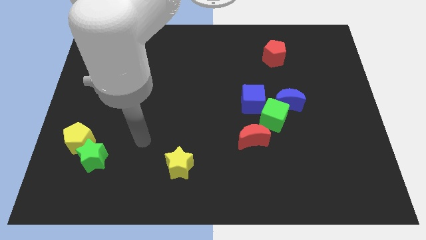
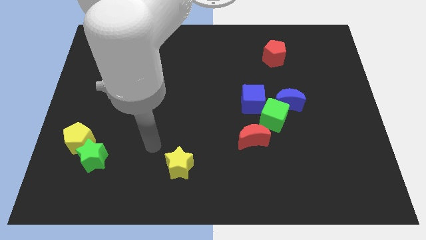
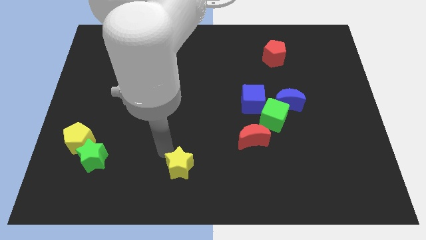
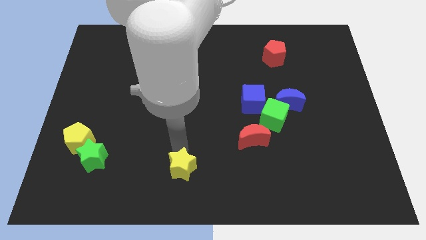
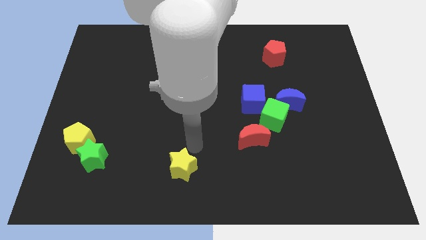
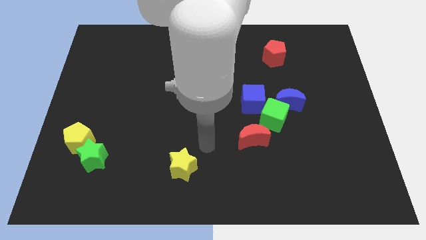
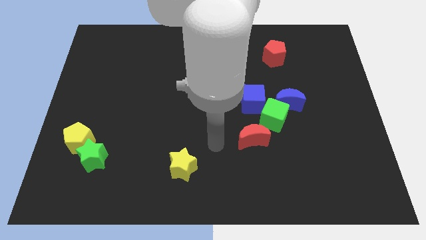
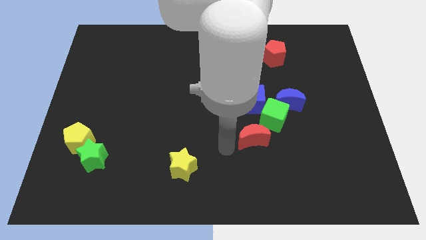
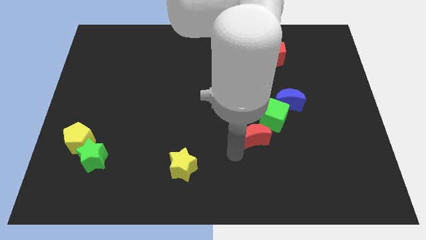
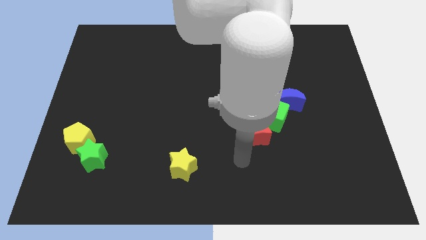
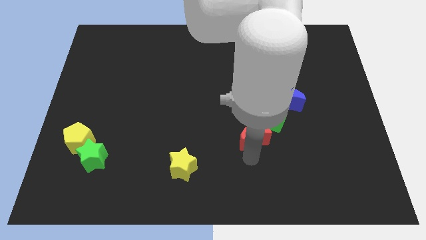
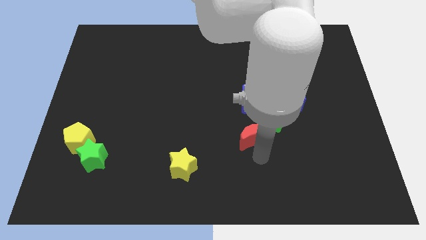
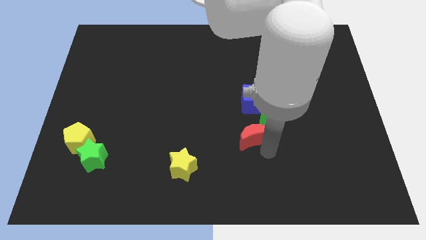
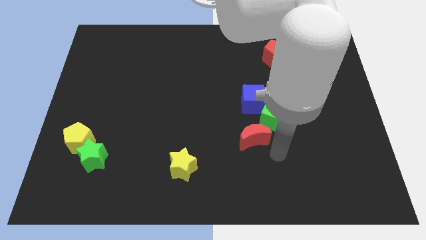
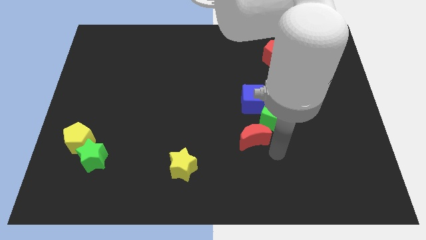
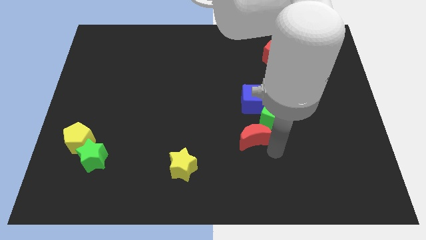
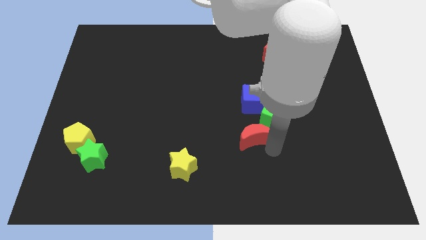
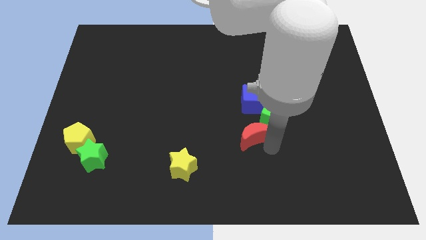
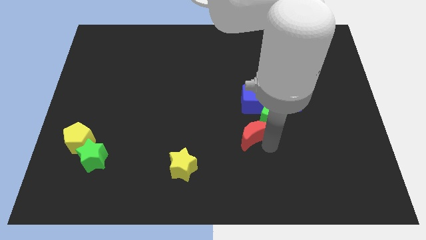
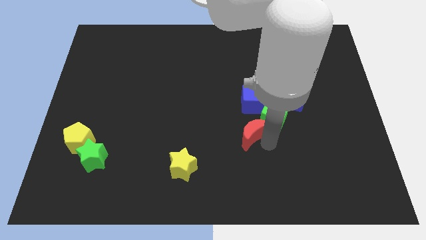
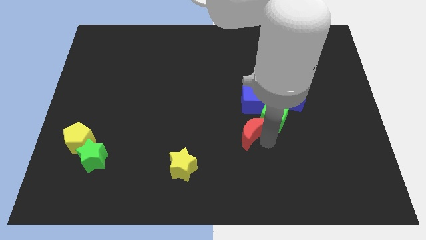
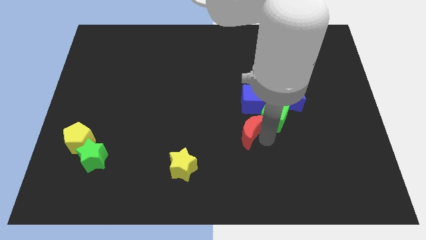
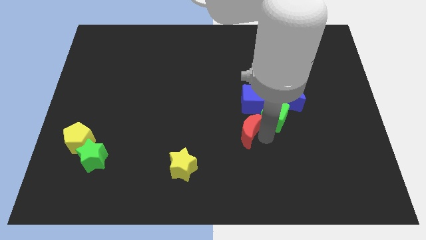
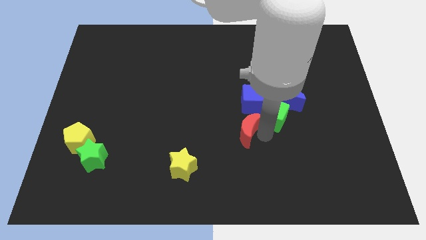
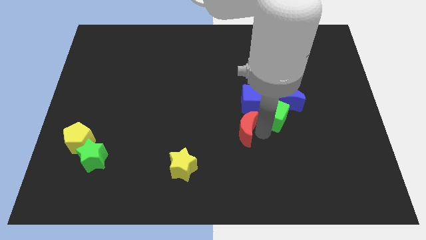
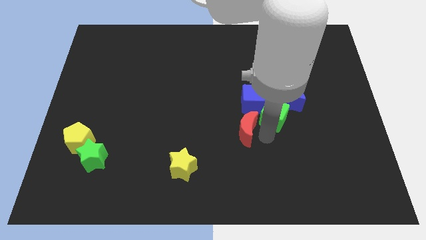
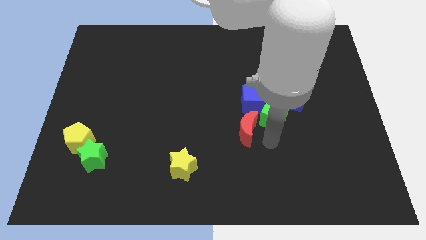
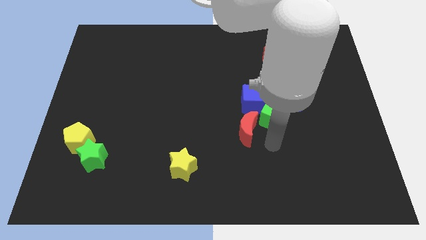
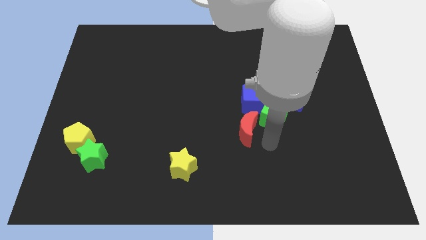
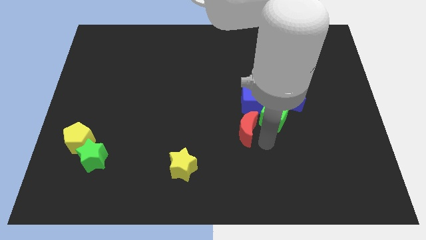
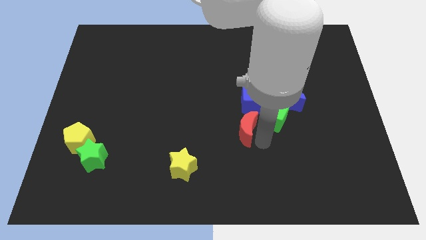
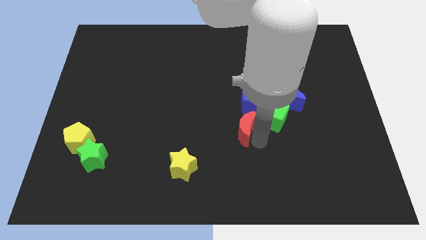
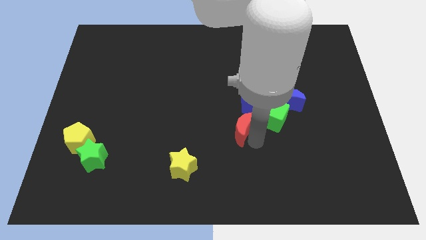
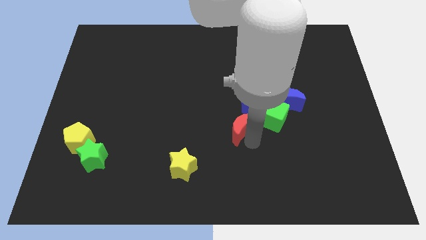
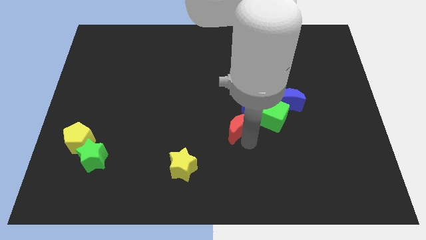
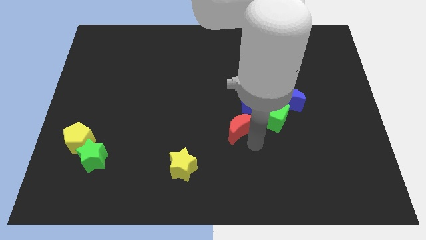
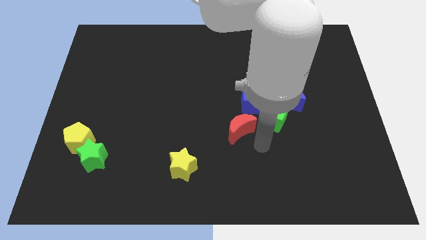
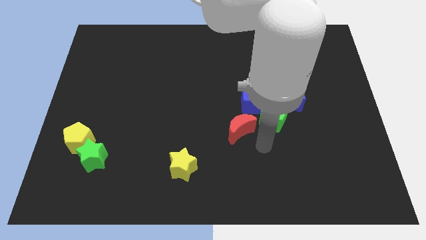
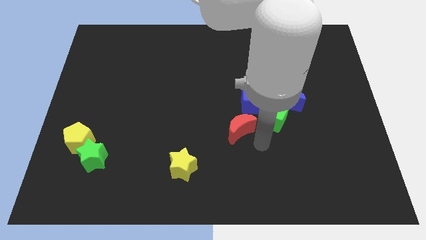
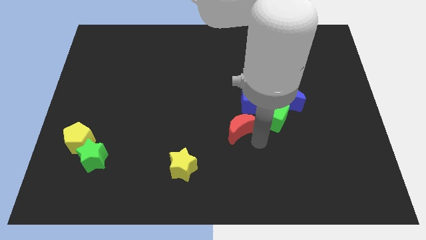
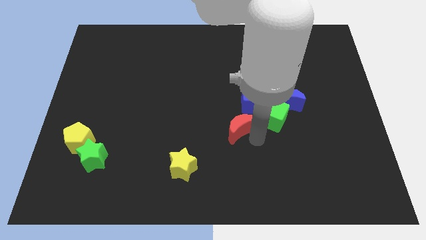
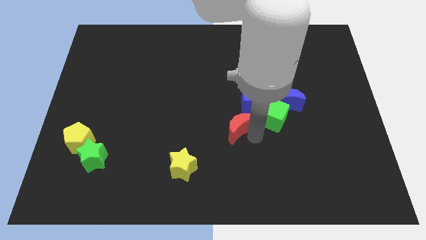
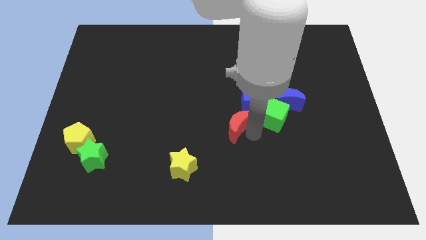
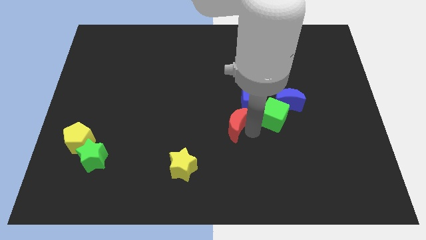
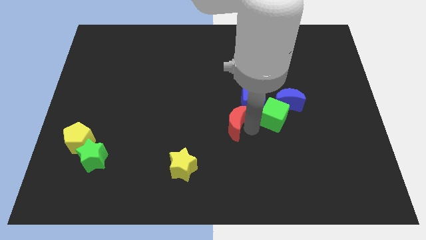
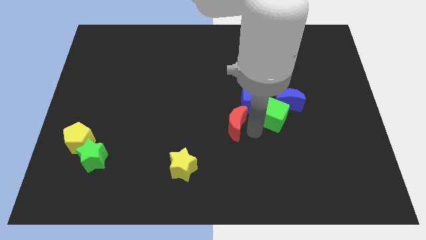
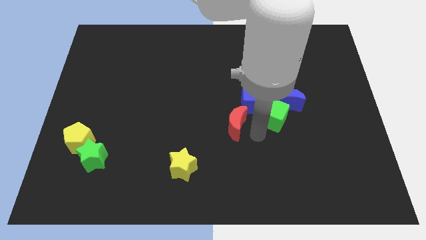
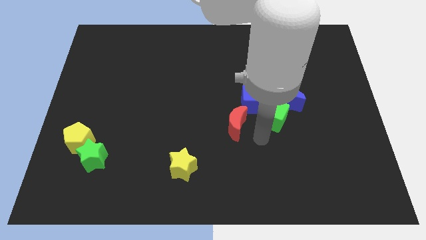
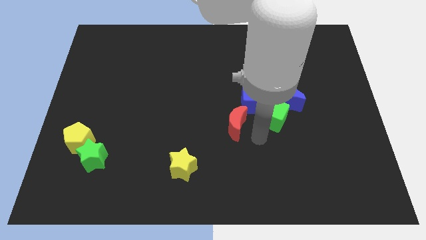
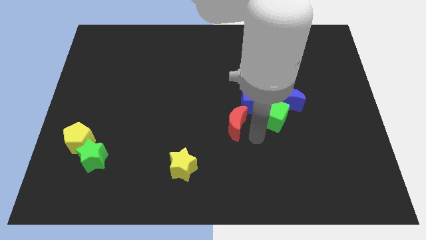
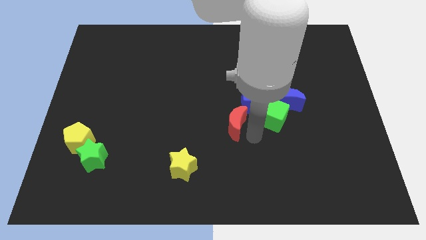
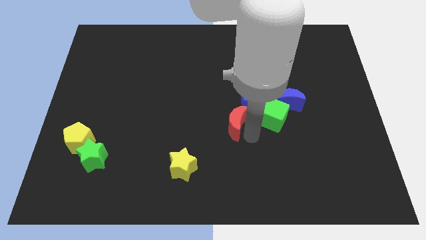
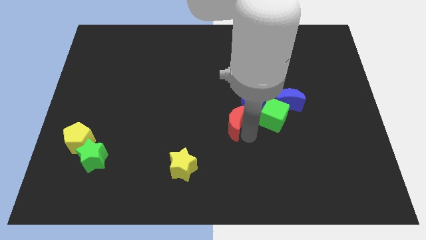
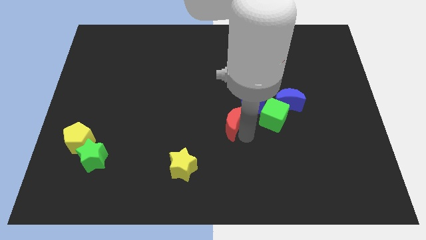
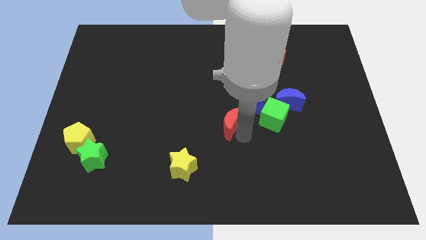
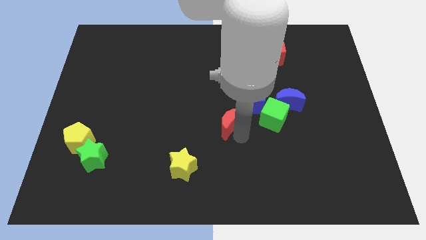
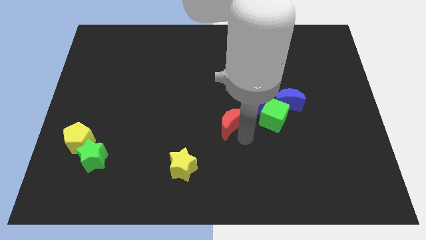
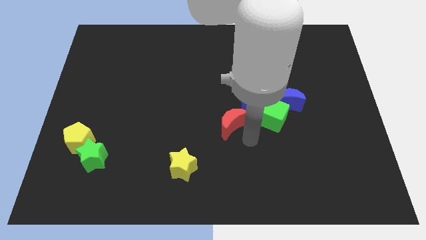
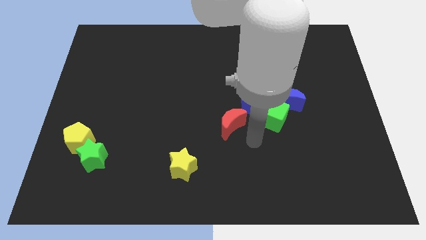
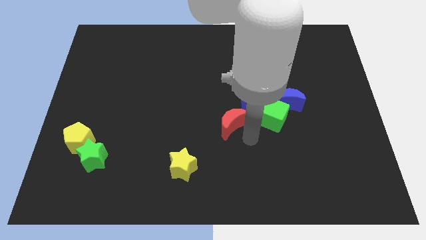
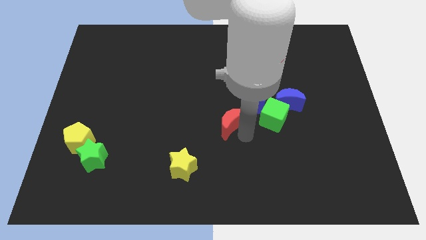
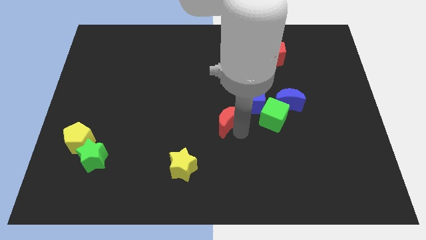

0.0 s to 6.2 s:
slide the red moon a little bit upwards and to the left diagonally

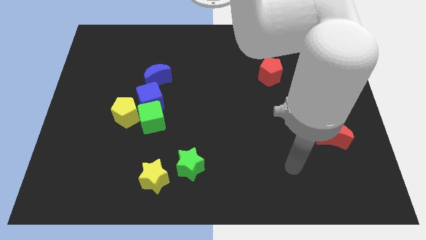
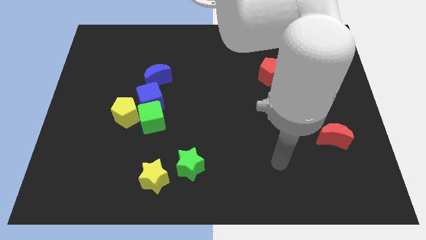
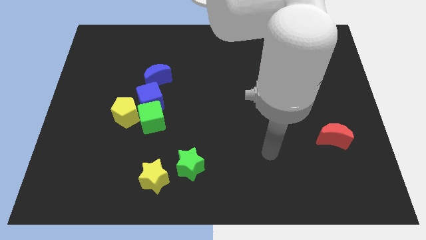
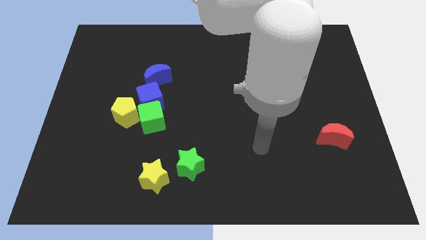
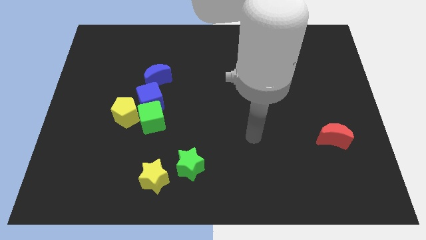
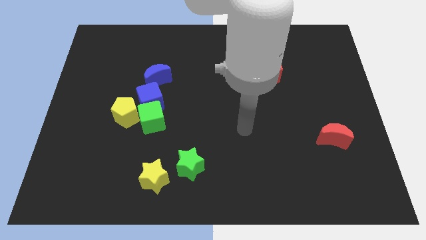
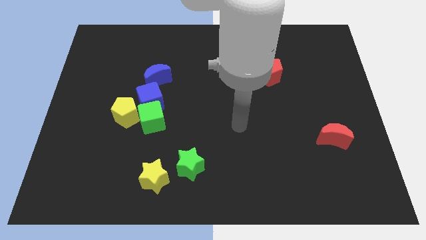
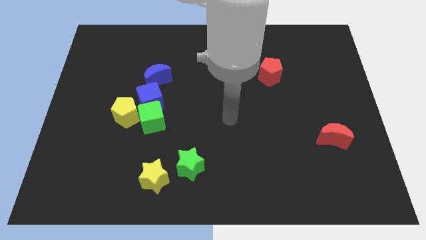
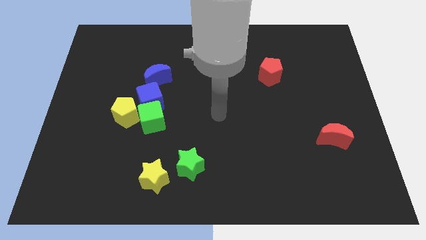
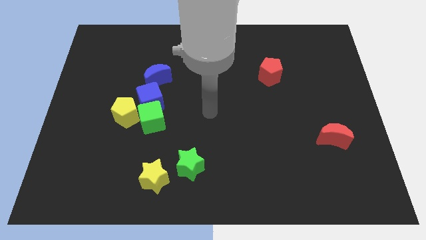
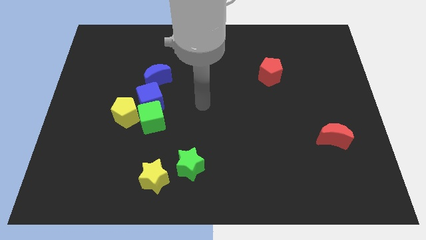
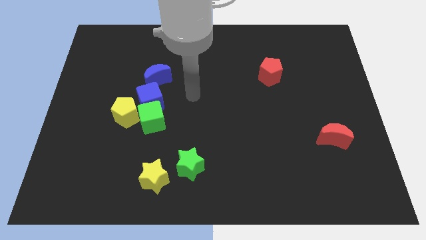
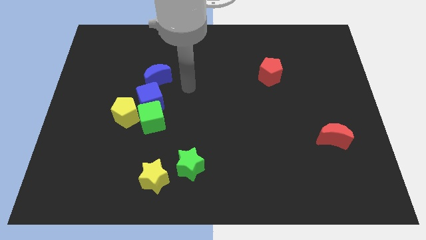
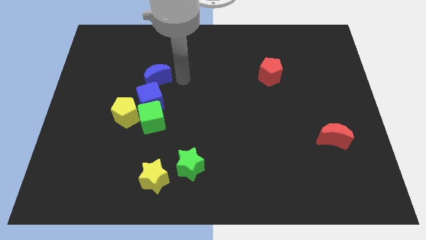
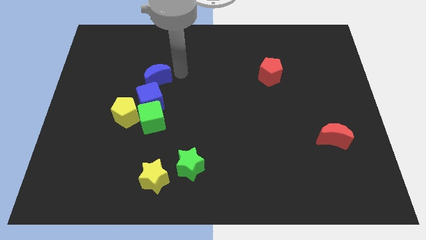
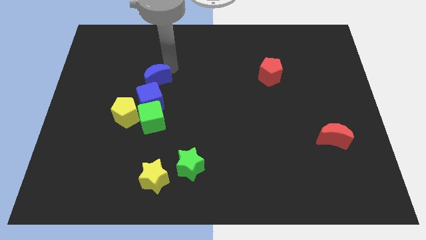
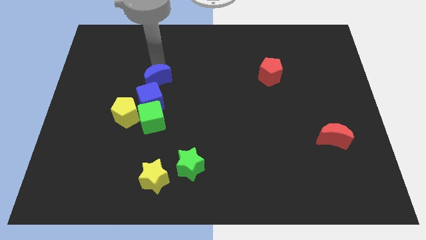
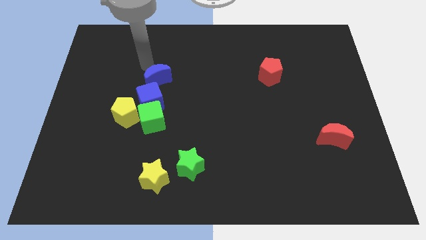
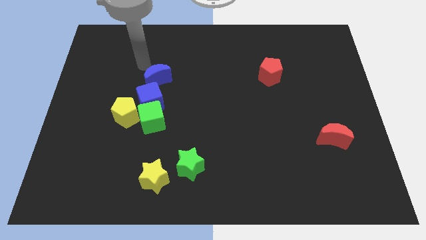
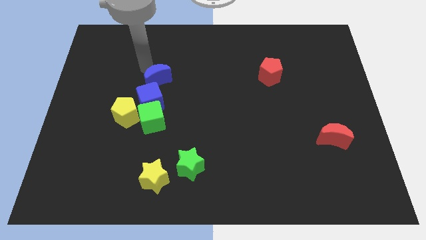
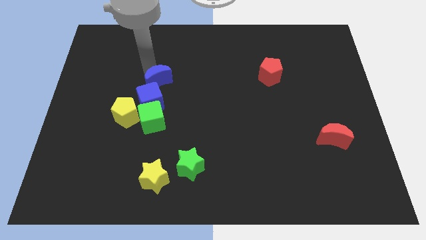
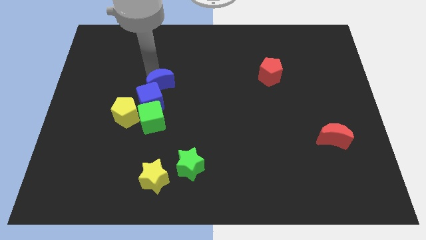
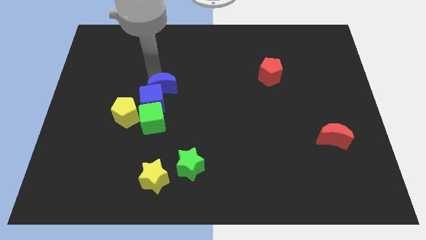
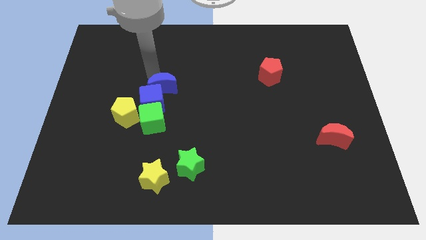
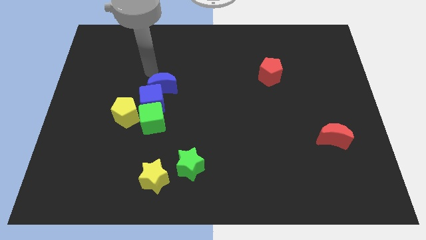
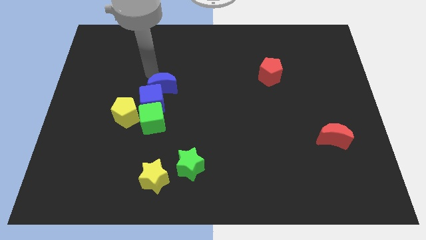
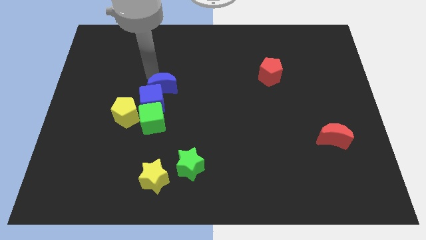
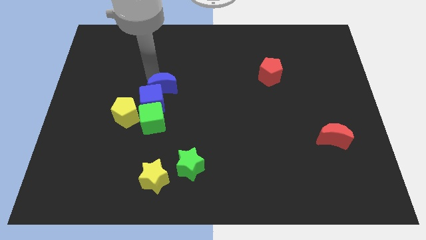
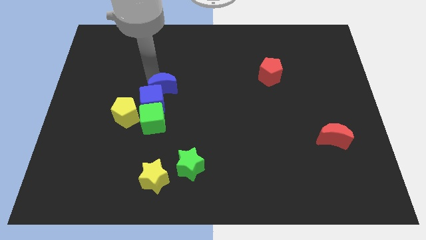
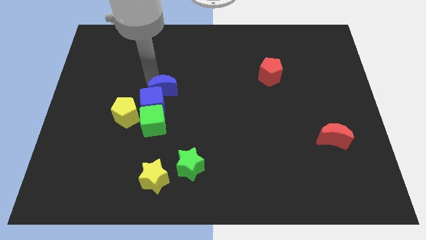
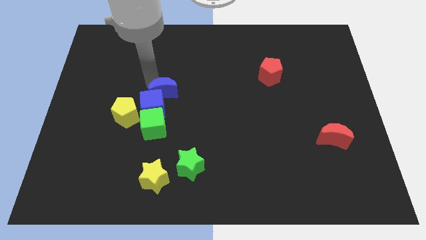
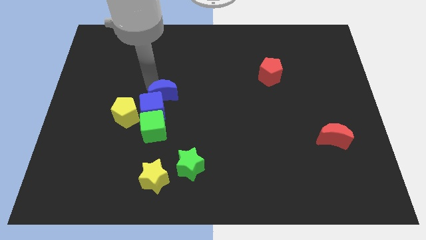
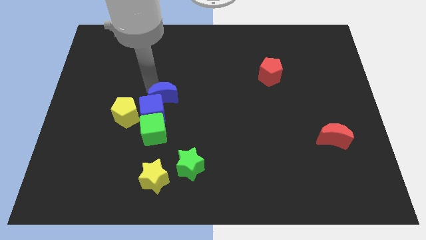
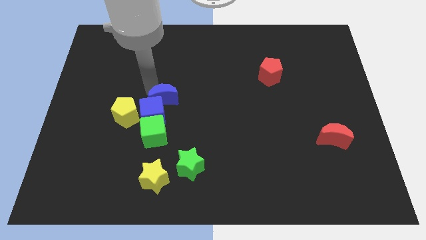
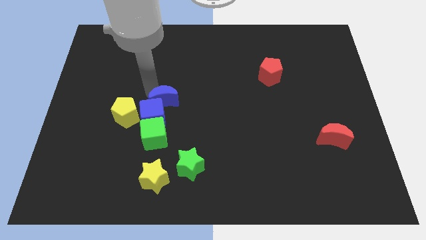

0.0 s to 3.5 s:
move the blue moon down a bit
